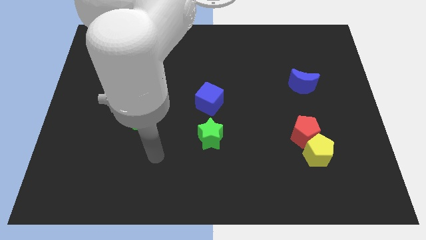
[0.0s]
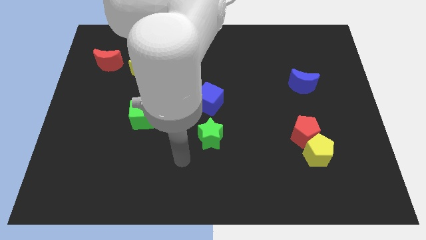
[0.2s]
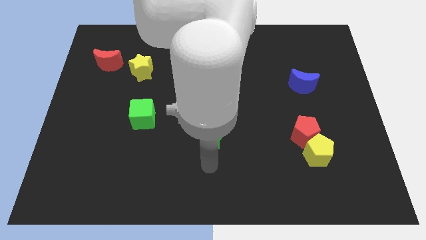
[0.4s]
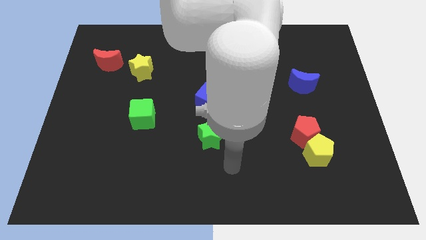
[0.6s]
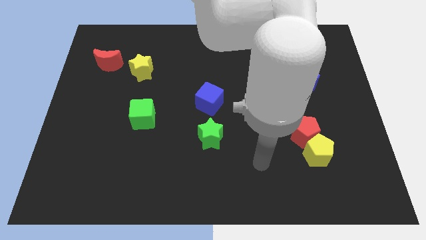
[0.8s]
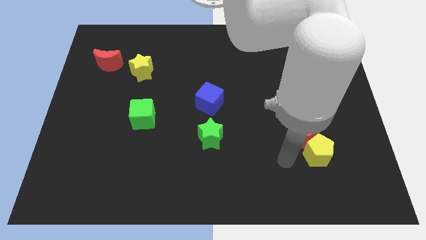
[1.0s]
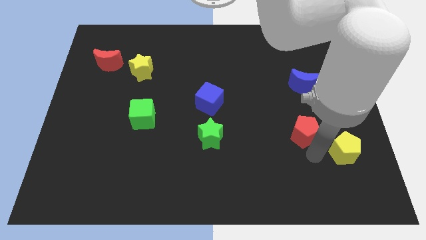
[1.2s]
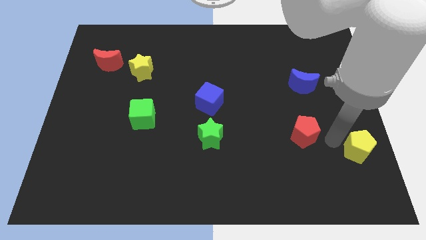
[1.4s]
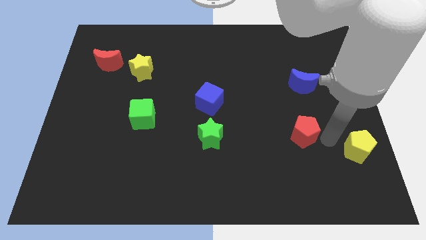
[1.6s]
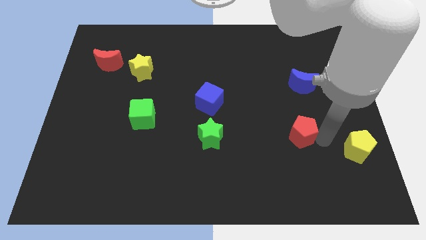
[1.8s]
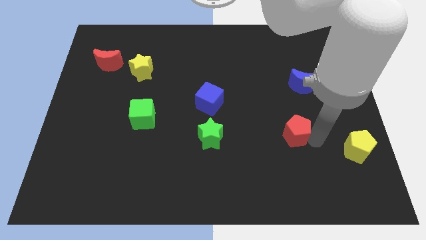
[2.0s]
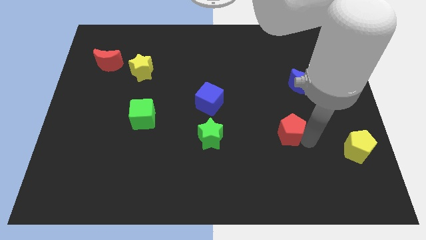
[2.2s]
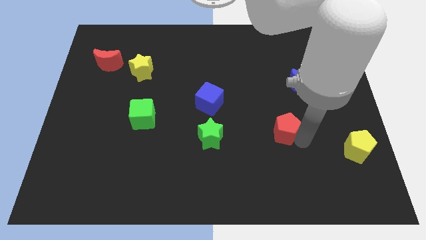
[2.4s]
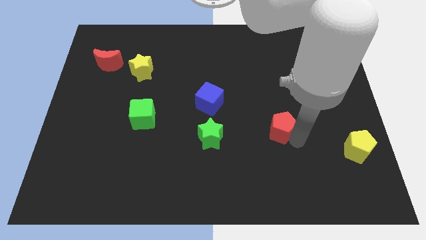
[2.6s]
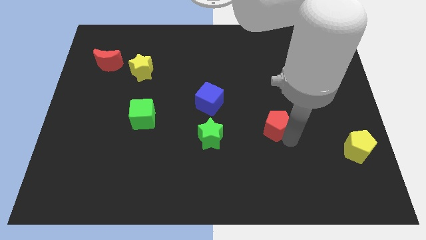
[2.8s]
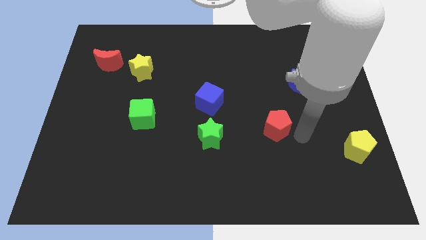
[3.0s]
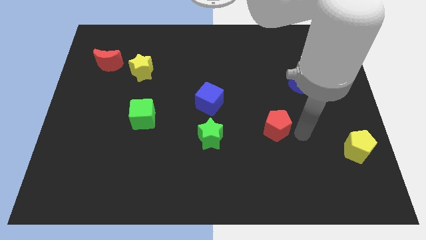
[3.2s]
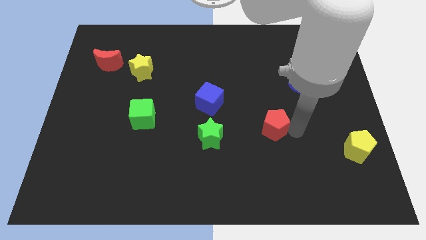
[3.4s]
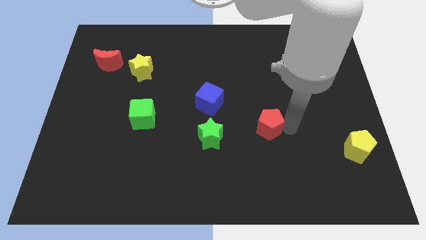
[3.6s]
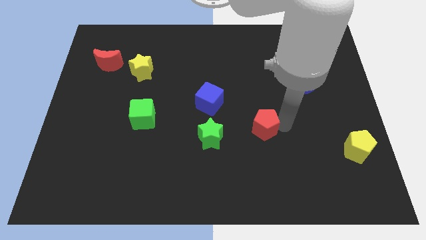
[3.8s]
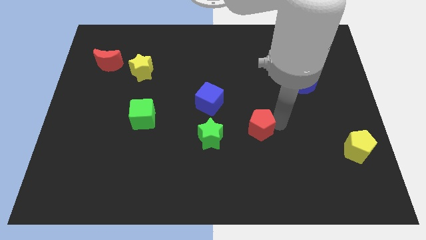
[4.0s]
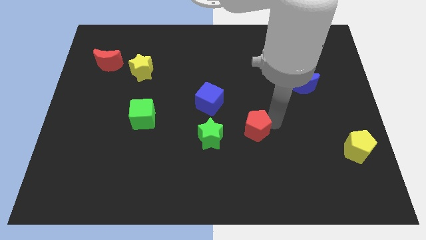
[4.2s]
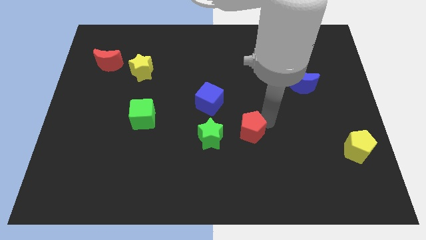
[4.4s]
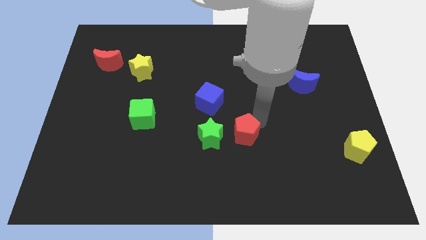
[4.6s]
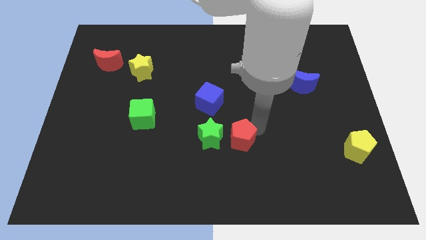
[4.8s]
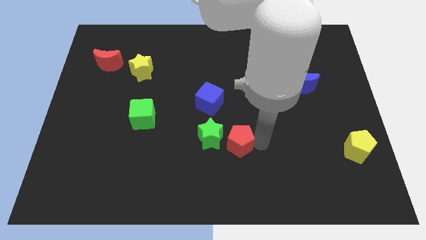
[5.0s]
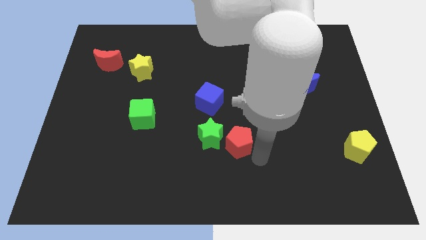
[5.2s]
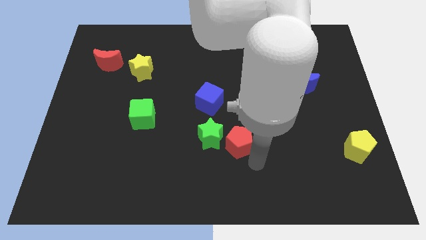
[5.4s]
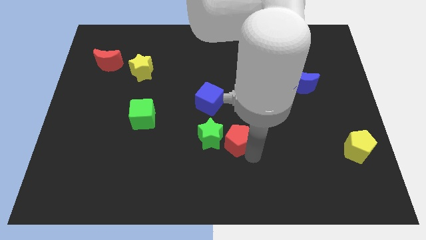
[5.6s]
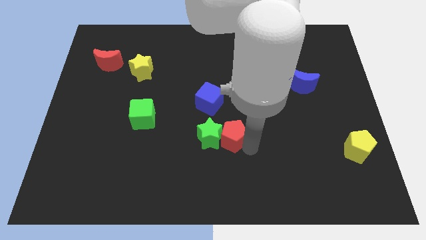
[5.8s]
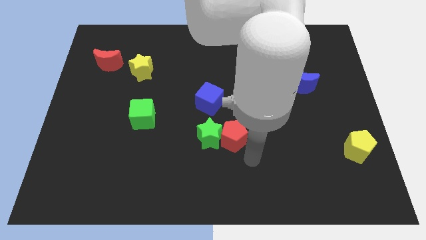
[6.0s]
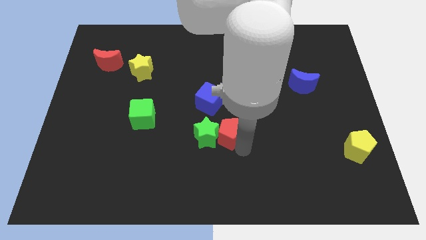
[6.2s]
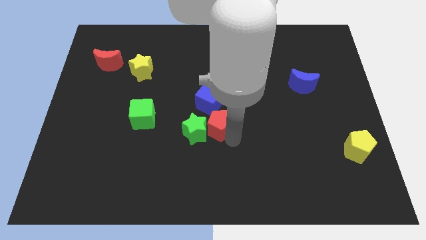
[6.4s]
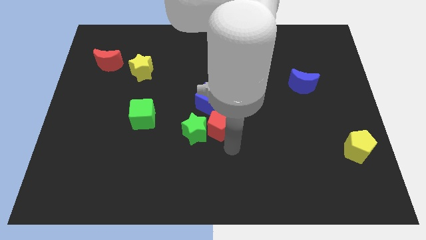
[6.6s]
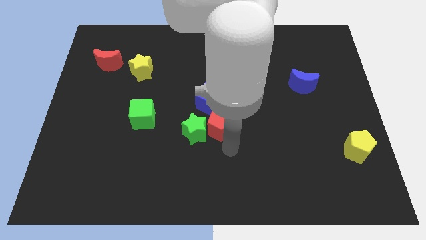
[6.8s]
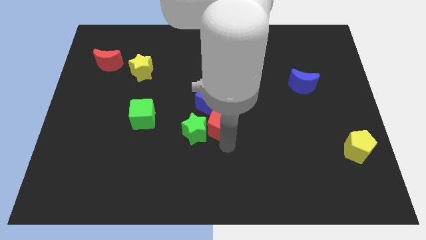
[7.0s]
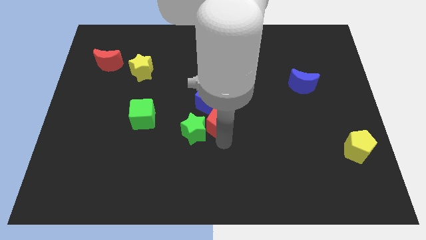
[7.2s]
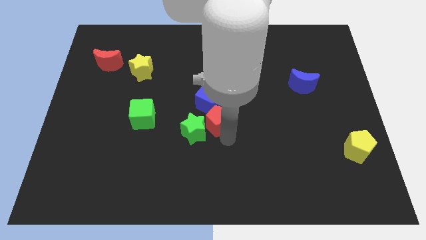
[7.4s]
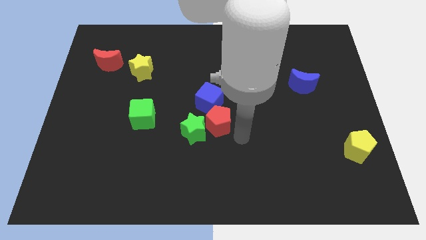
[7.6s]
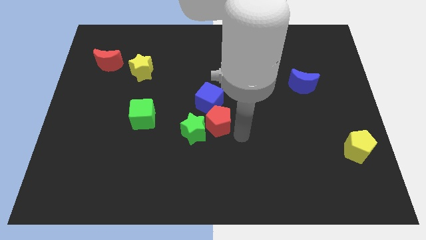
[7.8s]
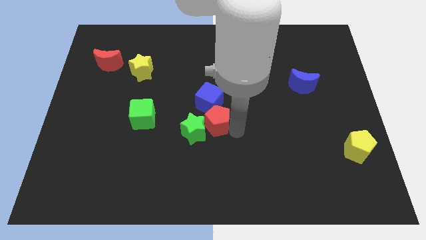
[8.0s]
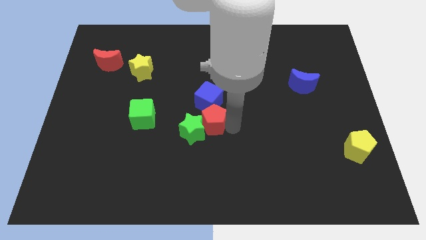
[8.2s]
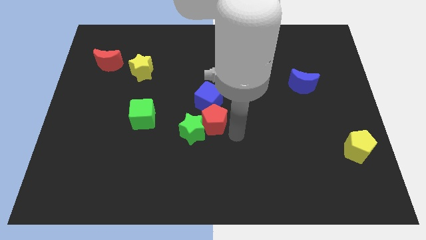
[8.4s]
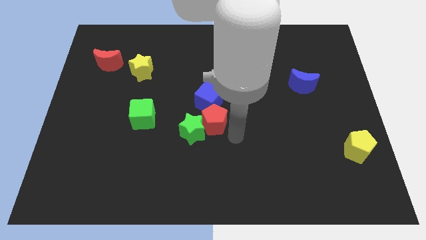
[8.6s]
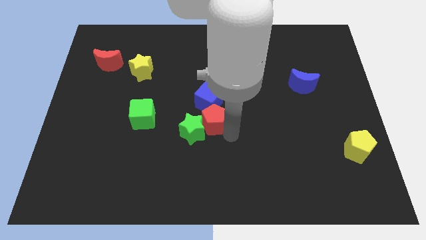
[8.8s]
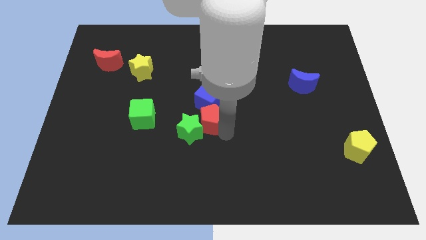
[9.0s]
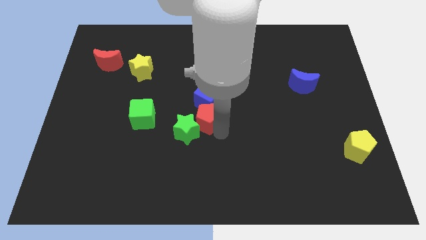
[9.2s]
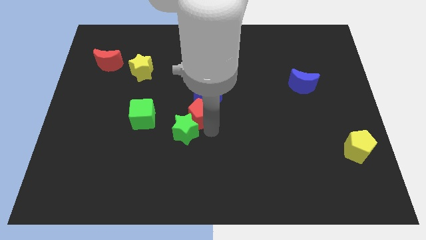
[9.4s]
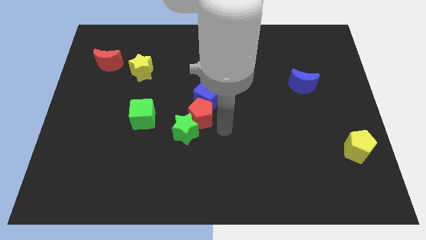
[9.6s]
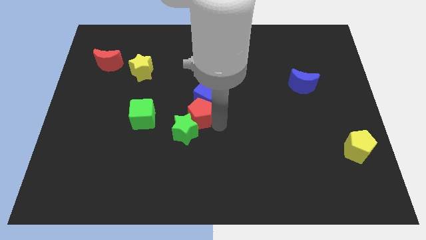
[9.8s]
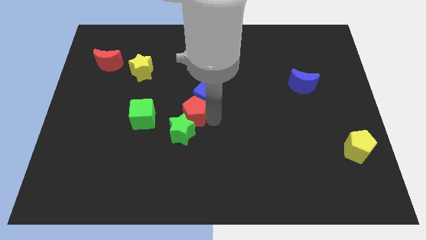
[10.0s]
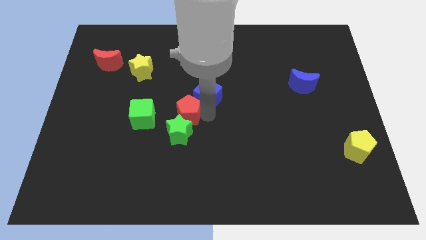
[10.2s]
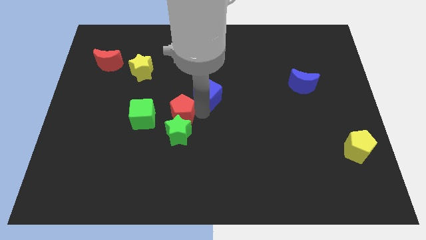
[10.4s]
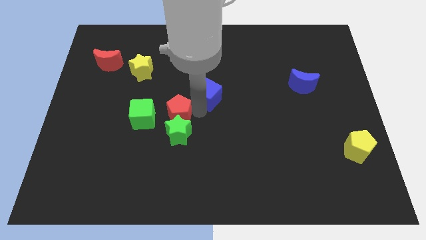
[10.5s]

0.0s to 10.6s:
push the red pentagon to the top right of the green cube

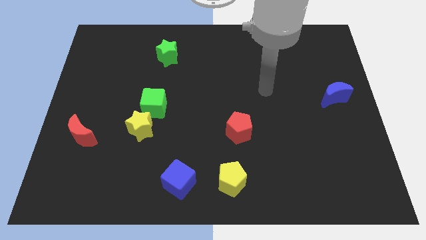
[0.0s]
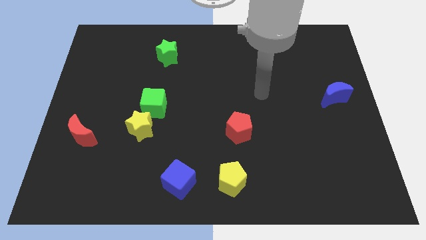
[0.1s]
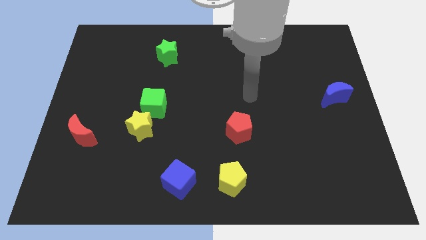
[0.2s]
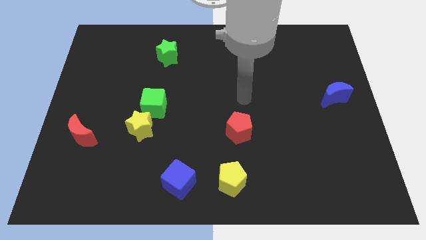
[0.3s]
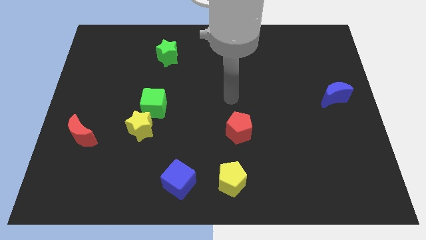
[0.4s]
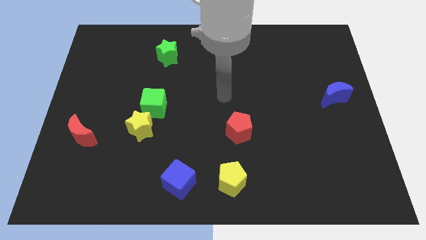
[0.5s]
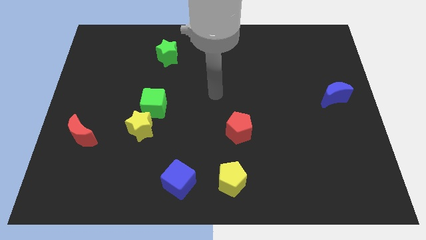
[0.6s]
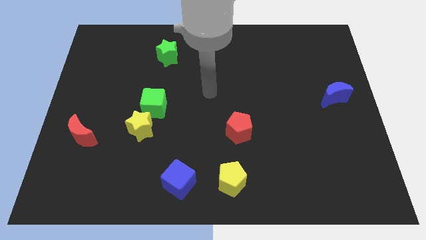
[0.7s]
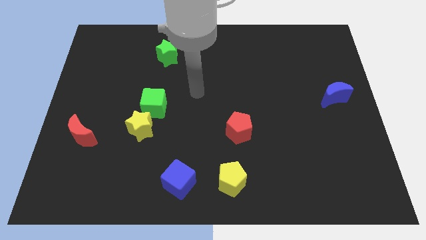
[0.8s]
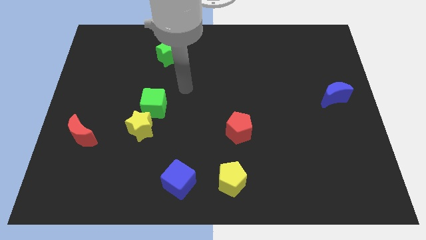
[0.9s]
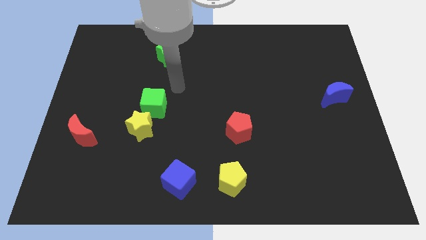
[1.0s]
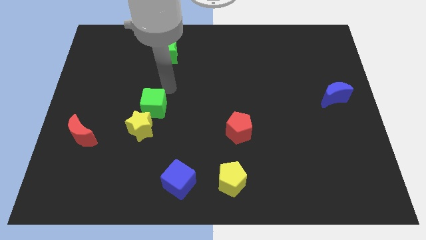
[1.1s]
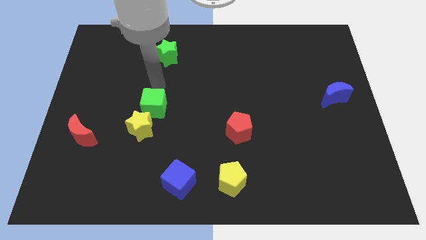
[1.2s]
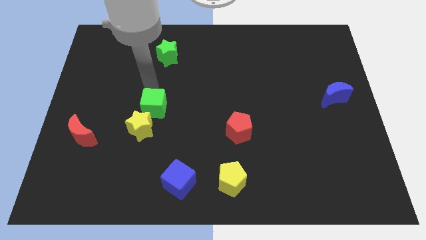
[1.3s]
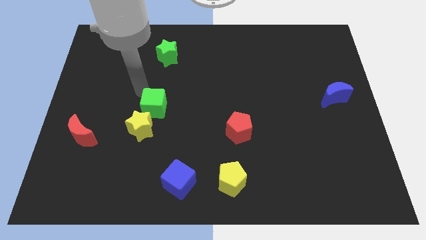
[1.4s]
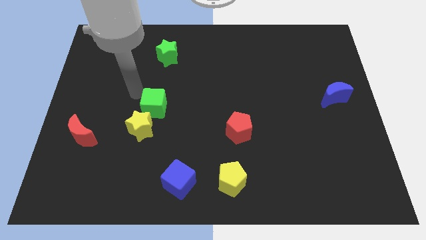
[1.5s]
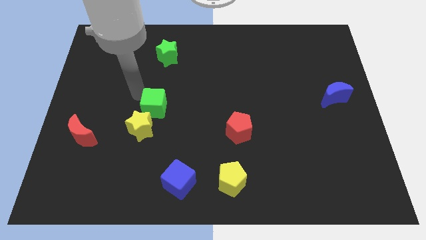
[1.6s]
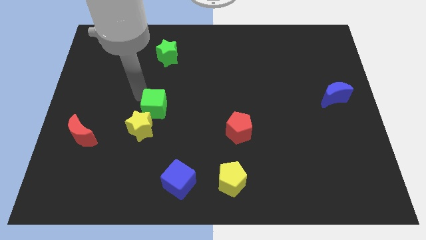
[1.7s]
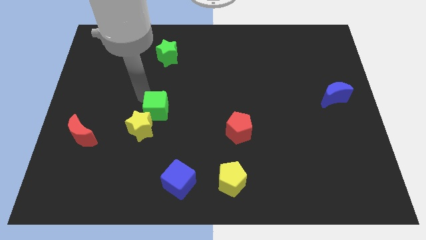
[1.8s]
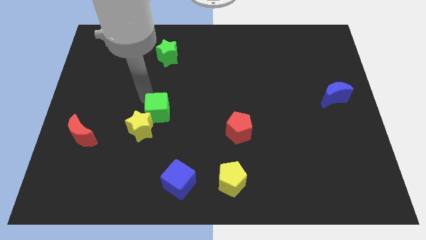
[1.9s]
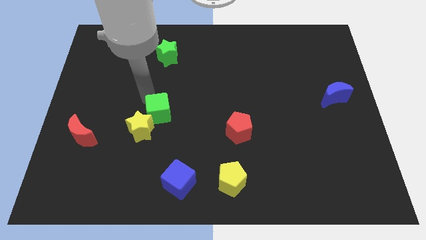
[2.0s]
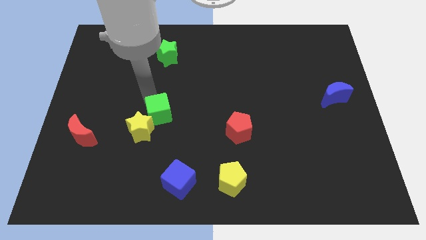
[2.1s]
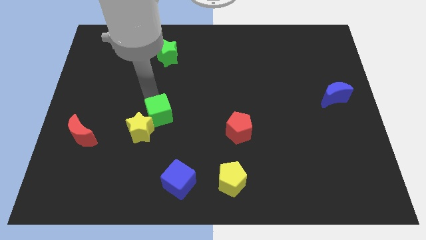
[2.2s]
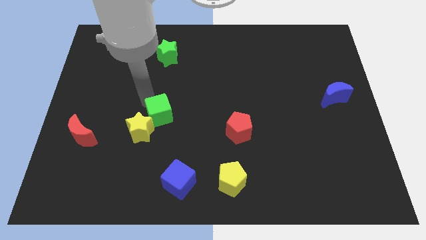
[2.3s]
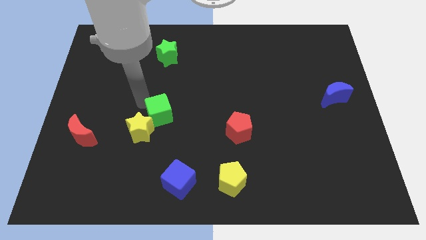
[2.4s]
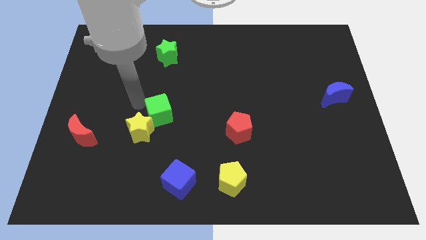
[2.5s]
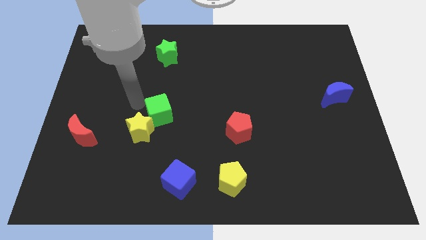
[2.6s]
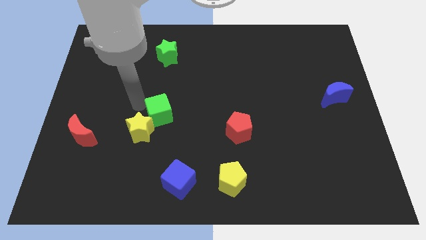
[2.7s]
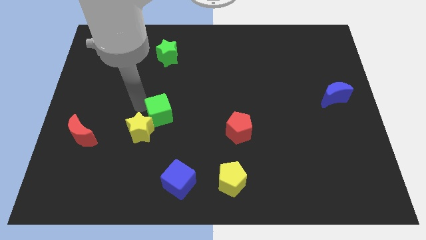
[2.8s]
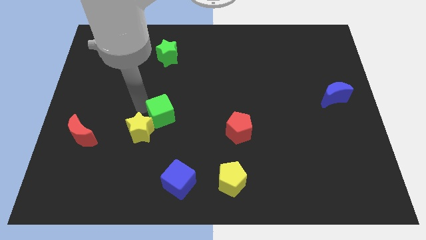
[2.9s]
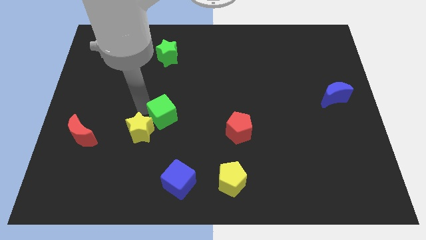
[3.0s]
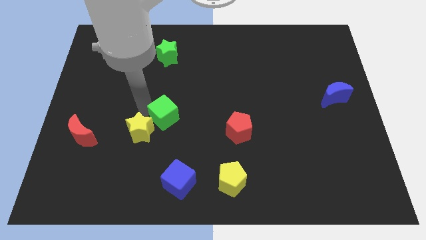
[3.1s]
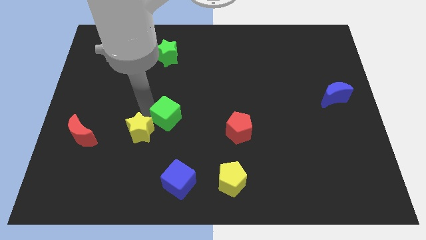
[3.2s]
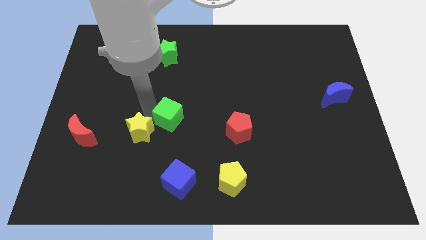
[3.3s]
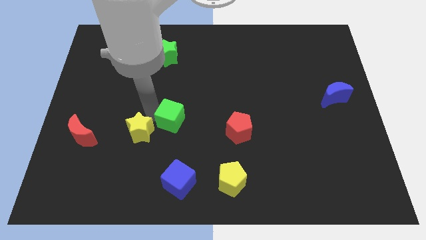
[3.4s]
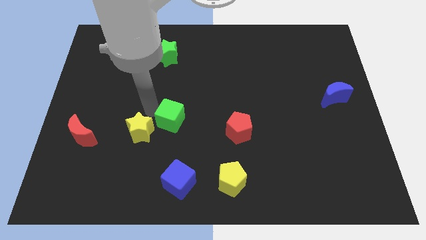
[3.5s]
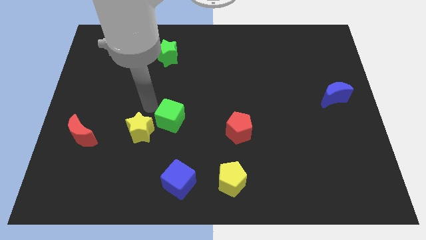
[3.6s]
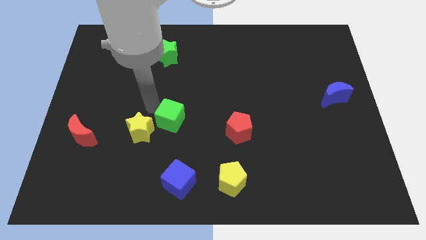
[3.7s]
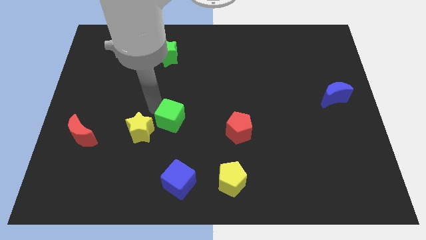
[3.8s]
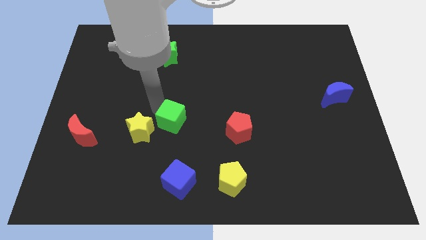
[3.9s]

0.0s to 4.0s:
move the green cube to the left of the red pentagon
